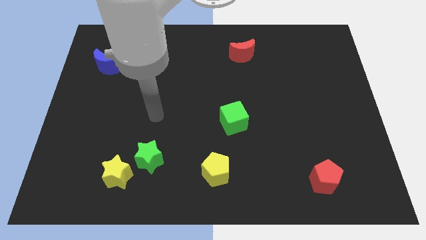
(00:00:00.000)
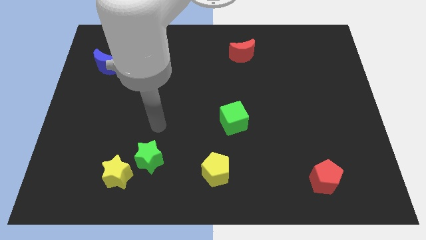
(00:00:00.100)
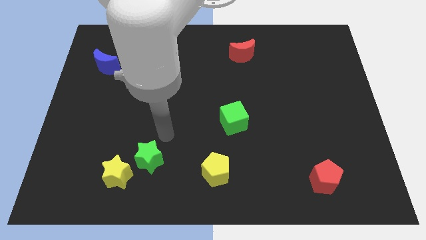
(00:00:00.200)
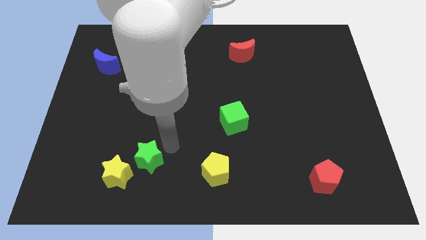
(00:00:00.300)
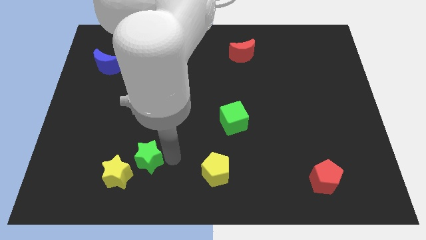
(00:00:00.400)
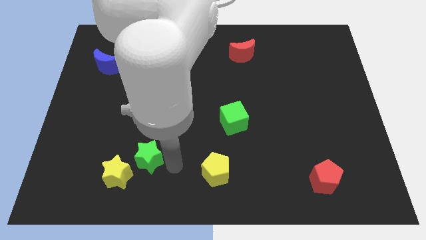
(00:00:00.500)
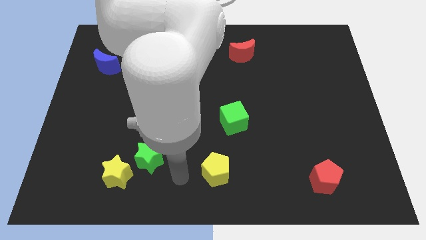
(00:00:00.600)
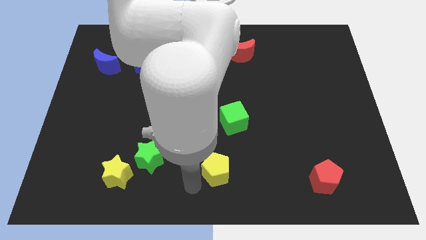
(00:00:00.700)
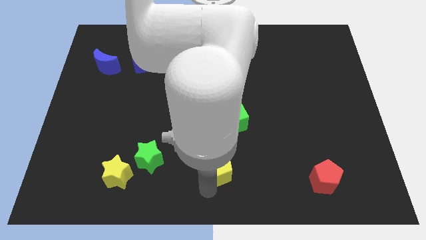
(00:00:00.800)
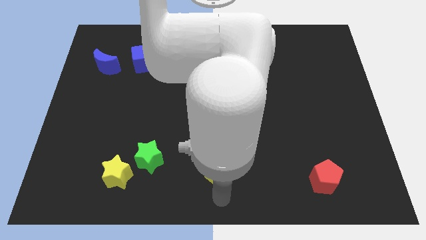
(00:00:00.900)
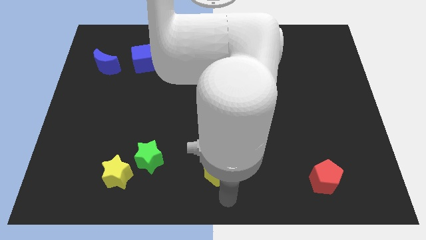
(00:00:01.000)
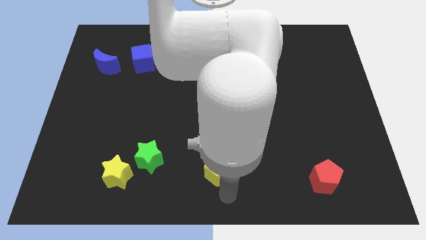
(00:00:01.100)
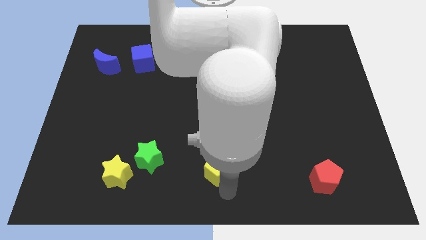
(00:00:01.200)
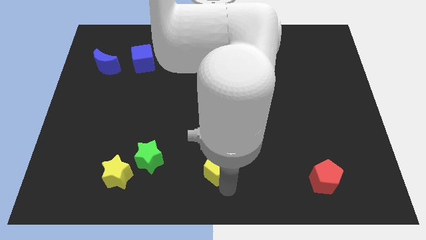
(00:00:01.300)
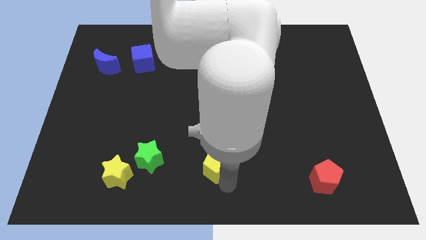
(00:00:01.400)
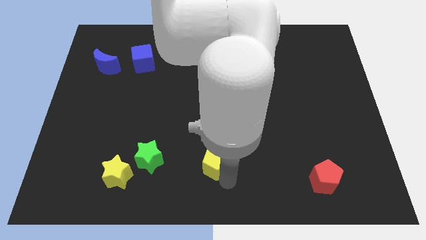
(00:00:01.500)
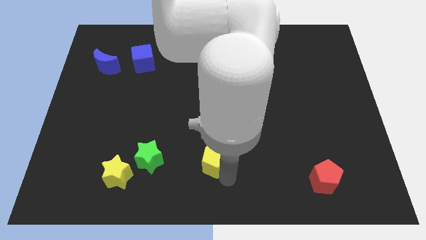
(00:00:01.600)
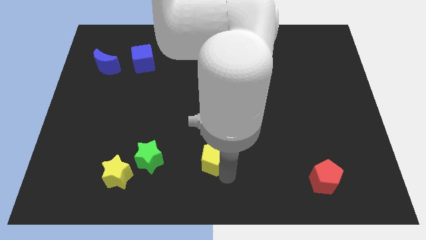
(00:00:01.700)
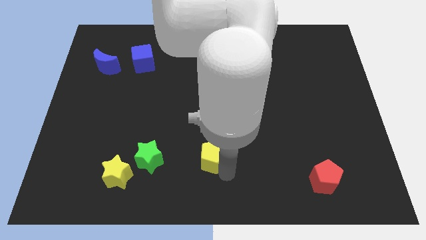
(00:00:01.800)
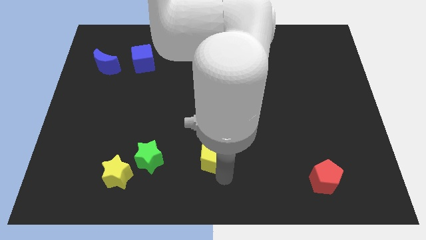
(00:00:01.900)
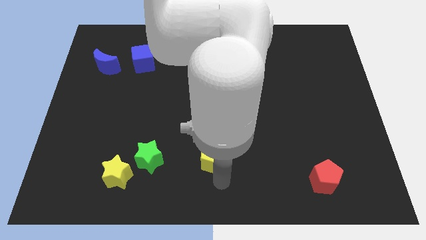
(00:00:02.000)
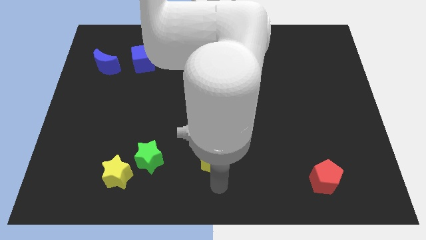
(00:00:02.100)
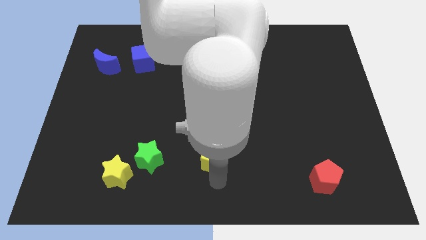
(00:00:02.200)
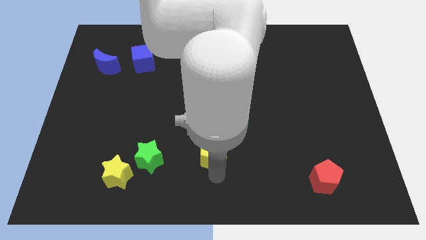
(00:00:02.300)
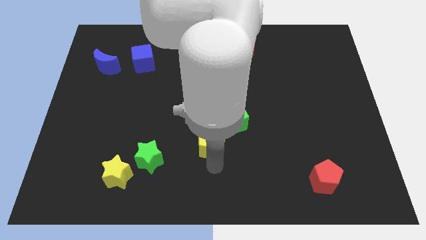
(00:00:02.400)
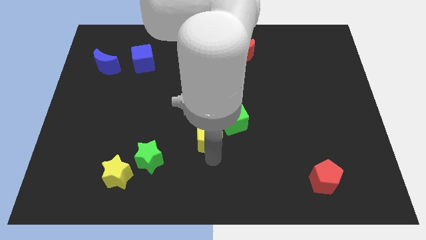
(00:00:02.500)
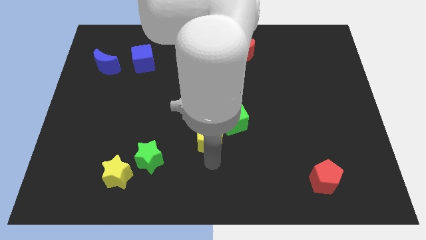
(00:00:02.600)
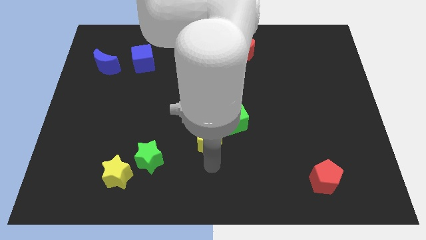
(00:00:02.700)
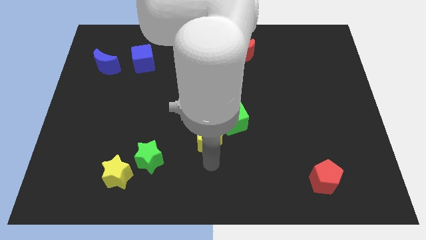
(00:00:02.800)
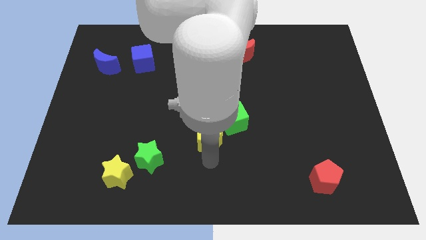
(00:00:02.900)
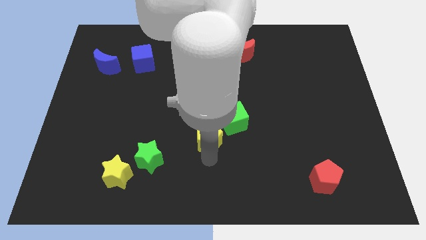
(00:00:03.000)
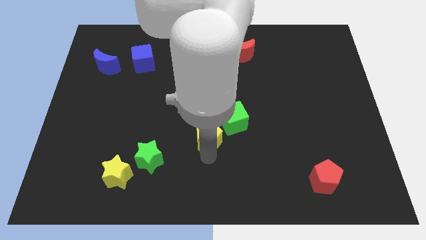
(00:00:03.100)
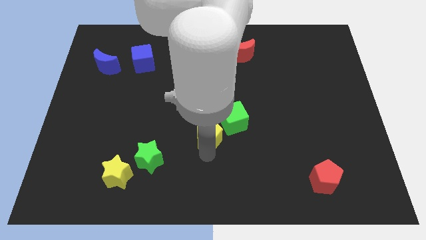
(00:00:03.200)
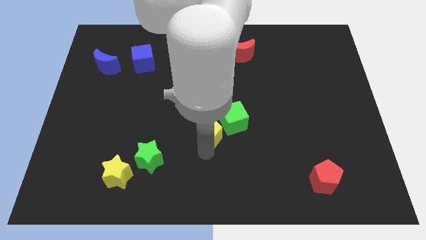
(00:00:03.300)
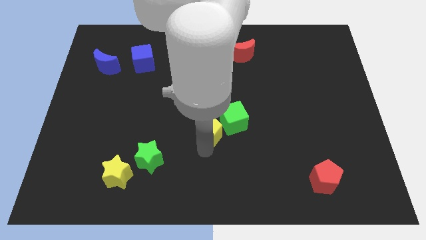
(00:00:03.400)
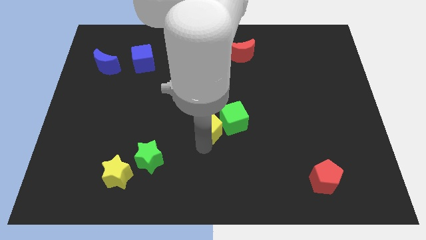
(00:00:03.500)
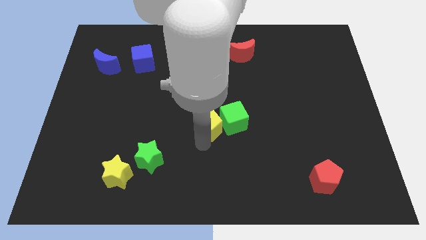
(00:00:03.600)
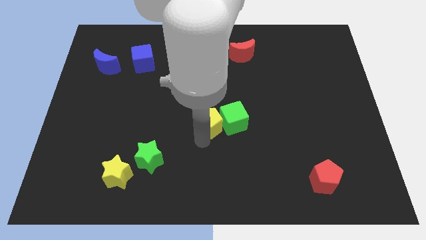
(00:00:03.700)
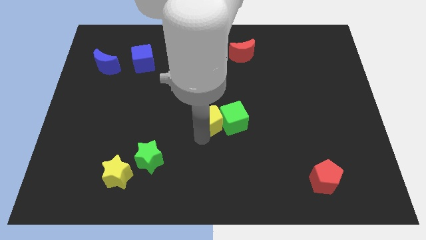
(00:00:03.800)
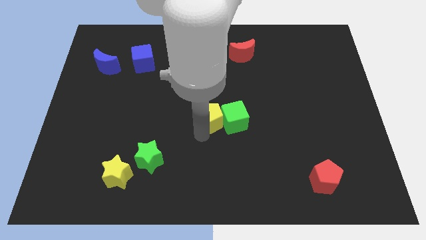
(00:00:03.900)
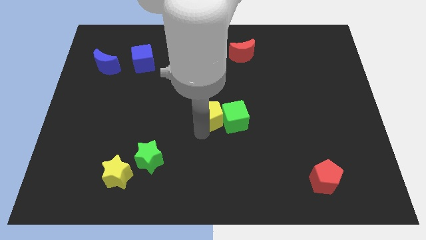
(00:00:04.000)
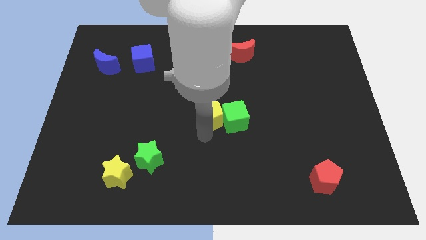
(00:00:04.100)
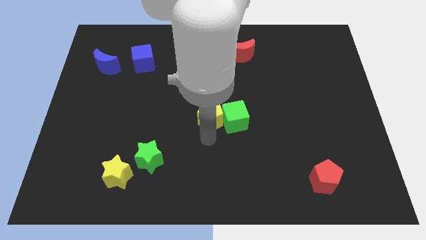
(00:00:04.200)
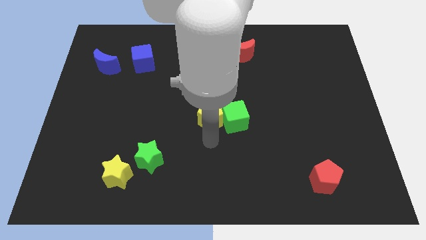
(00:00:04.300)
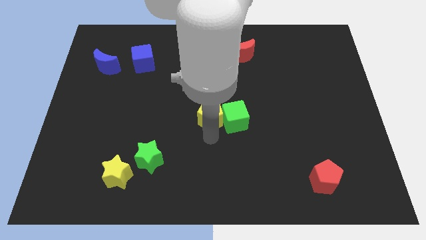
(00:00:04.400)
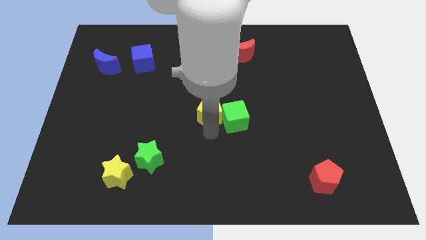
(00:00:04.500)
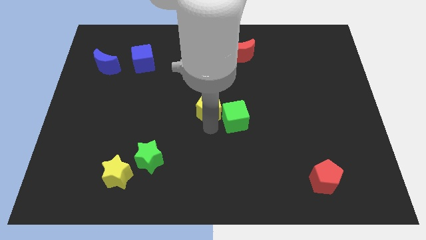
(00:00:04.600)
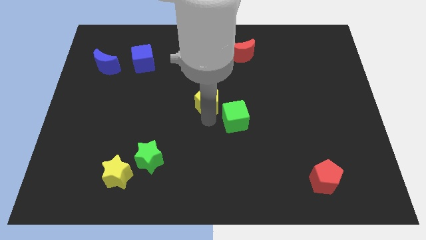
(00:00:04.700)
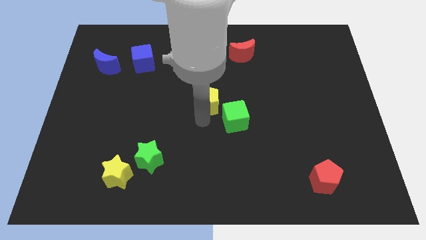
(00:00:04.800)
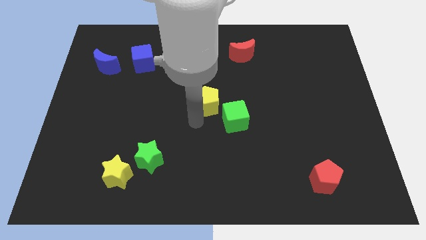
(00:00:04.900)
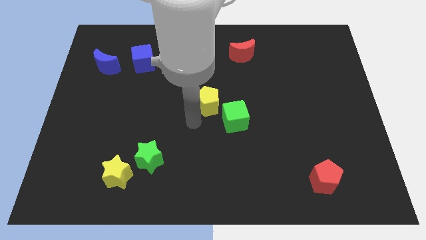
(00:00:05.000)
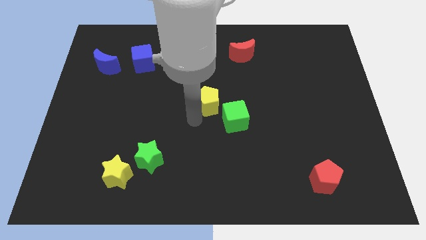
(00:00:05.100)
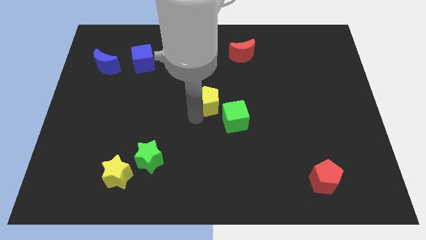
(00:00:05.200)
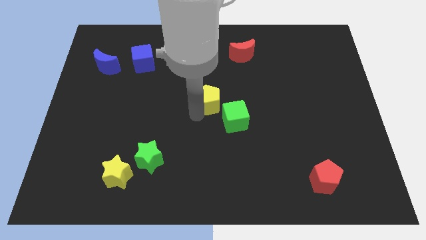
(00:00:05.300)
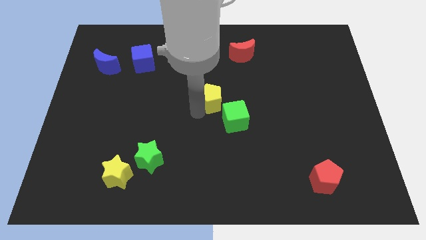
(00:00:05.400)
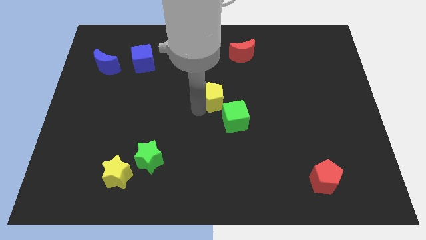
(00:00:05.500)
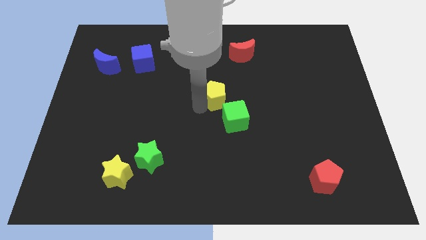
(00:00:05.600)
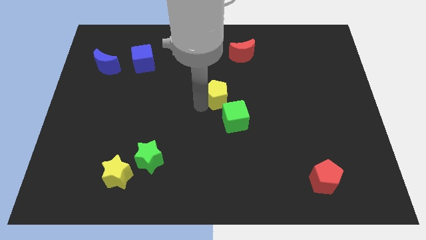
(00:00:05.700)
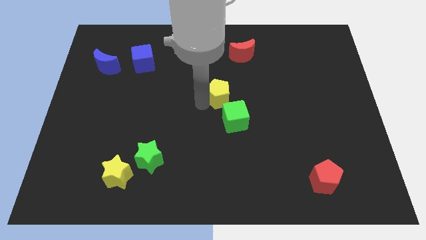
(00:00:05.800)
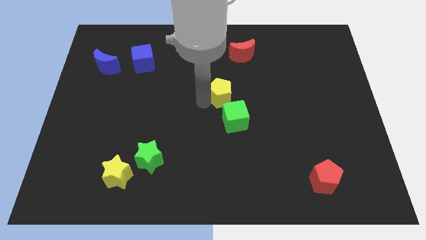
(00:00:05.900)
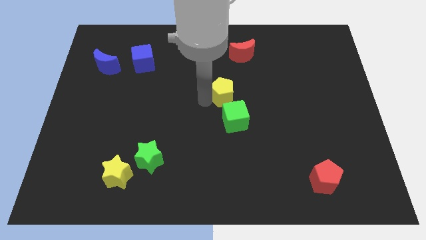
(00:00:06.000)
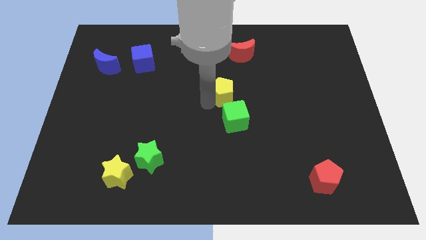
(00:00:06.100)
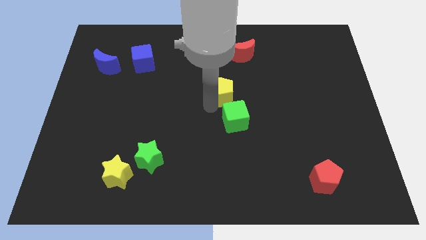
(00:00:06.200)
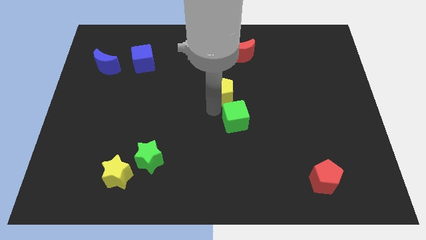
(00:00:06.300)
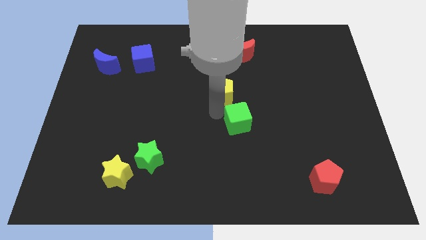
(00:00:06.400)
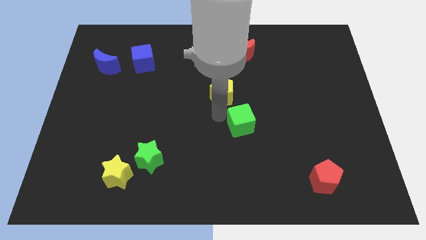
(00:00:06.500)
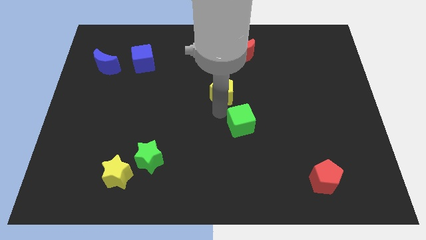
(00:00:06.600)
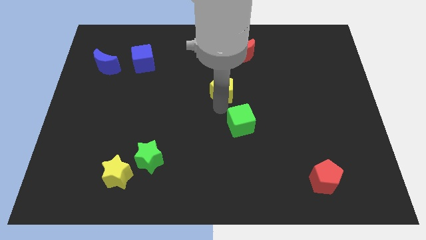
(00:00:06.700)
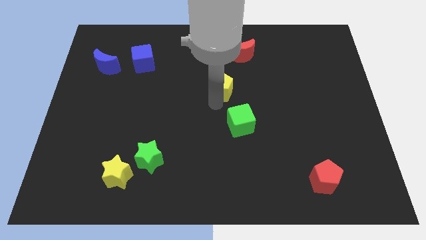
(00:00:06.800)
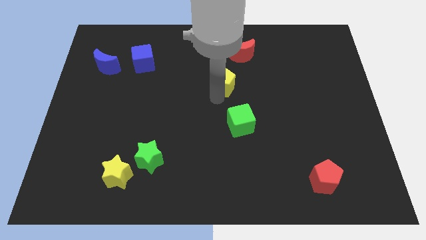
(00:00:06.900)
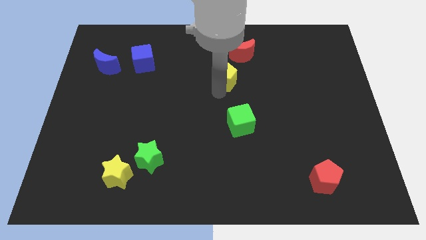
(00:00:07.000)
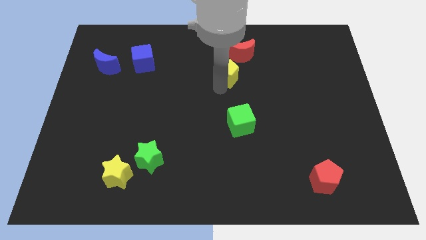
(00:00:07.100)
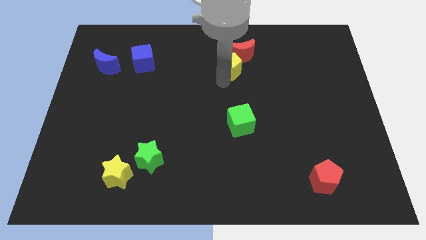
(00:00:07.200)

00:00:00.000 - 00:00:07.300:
push the yellow pentagon close to the red moon
